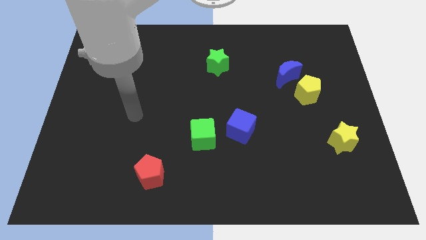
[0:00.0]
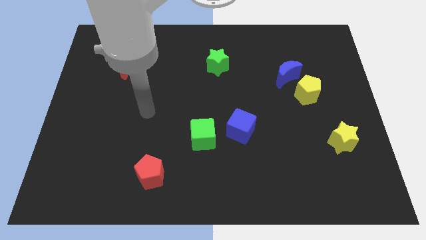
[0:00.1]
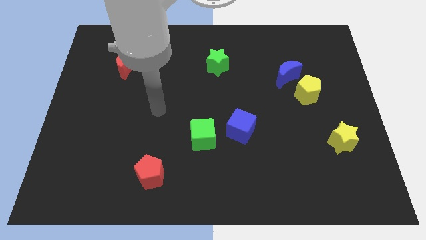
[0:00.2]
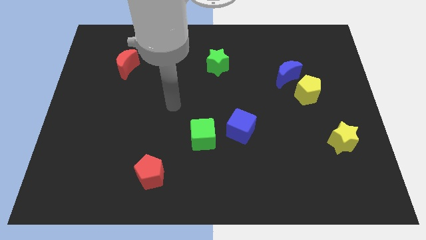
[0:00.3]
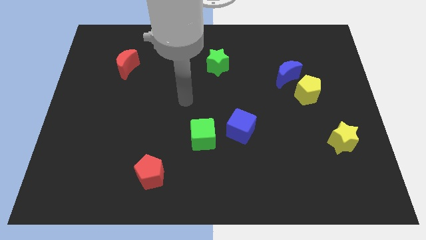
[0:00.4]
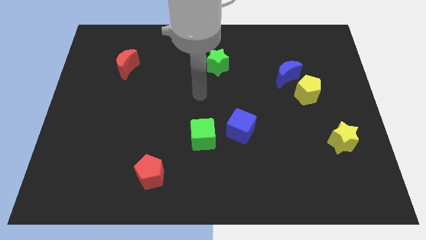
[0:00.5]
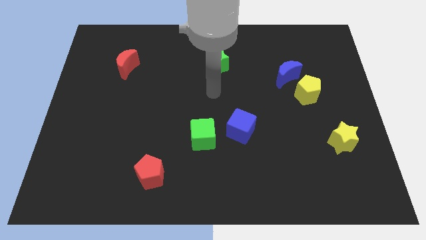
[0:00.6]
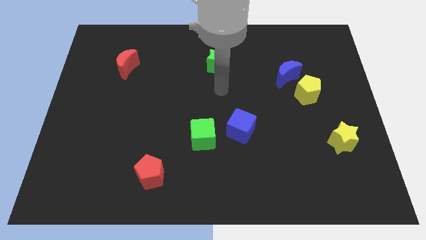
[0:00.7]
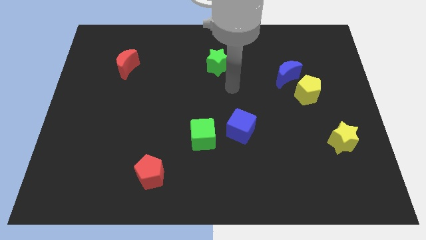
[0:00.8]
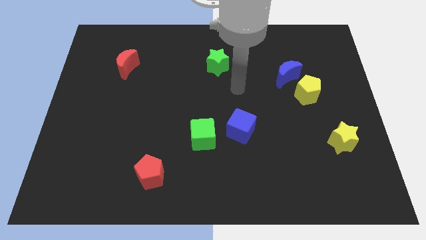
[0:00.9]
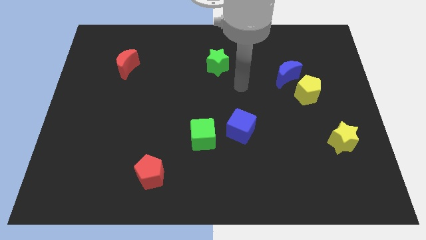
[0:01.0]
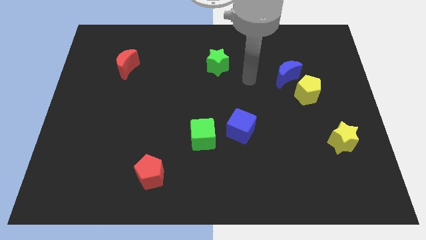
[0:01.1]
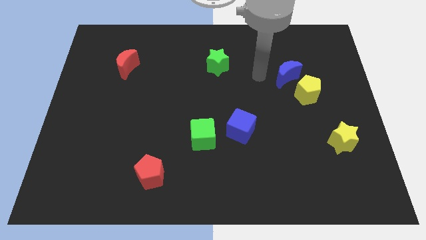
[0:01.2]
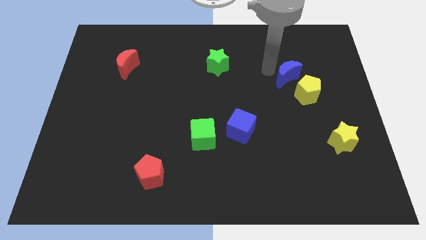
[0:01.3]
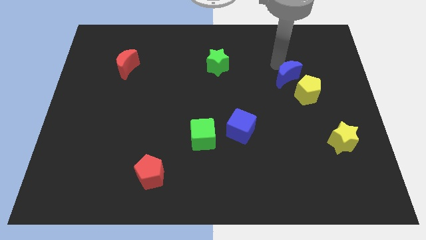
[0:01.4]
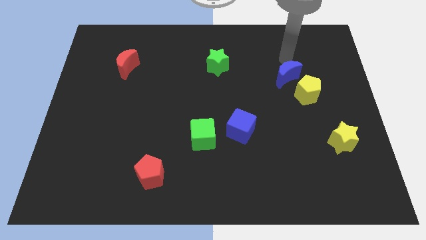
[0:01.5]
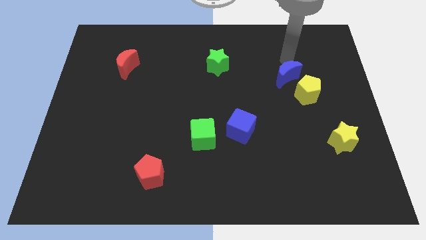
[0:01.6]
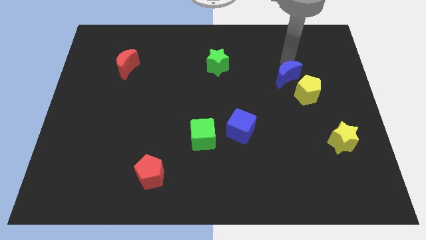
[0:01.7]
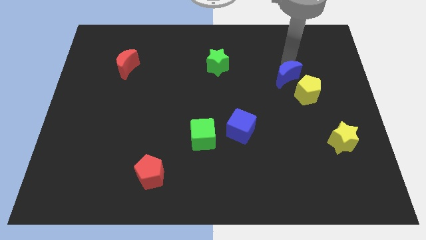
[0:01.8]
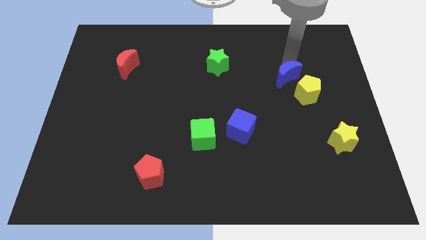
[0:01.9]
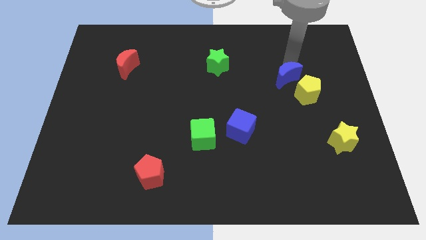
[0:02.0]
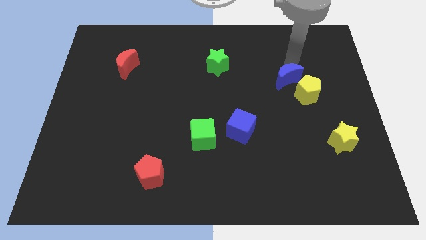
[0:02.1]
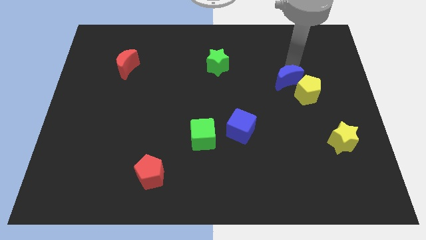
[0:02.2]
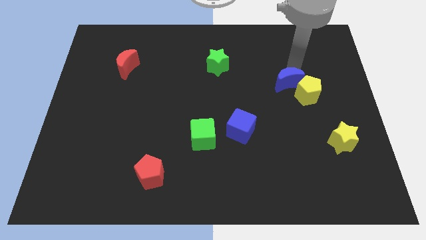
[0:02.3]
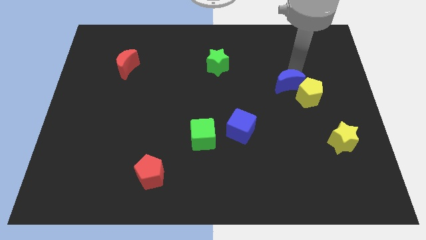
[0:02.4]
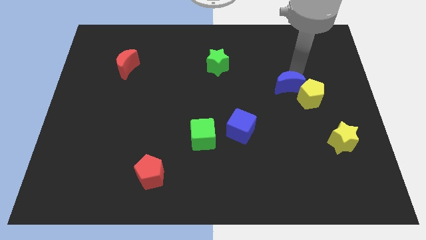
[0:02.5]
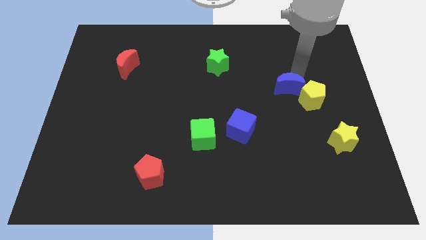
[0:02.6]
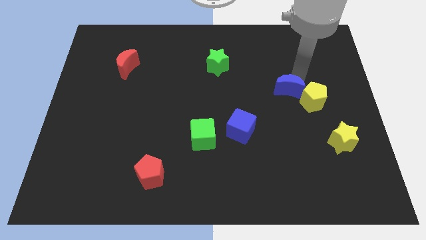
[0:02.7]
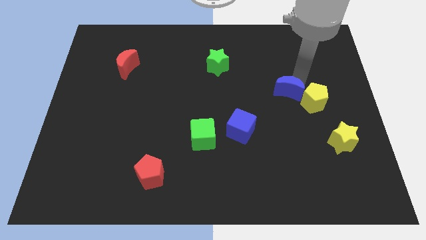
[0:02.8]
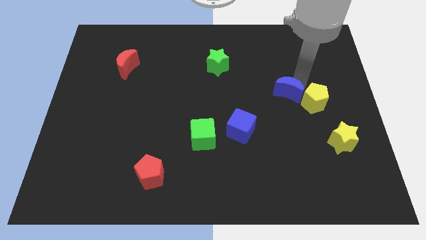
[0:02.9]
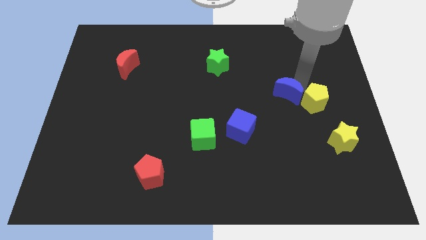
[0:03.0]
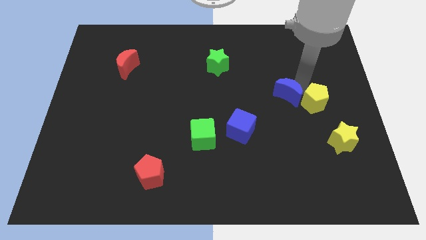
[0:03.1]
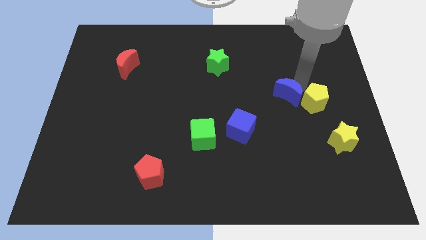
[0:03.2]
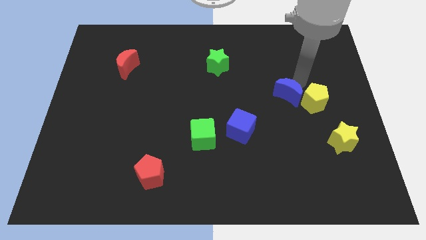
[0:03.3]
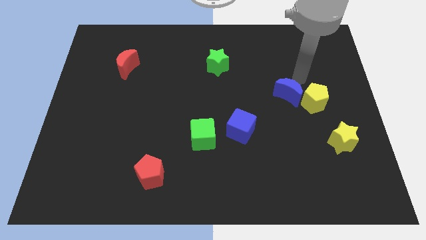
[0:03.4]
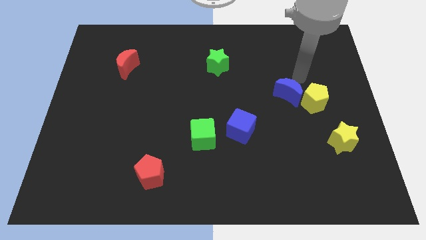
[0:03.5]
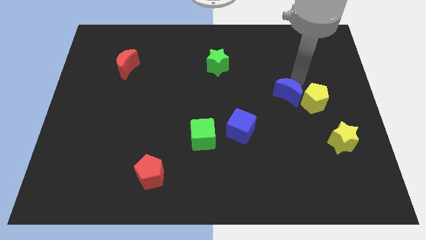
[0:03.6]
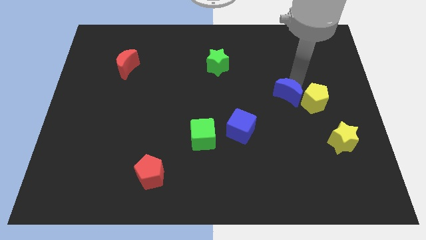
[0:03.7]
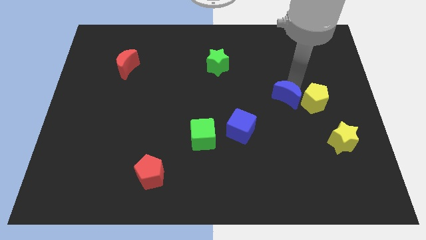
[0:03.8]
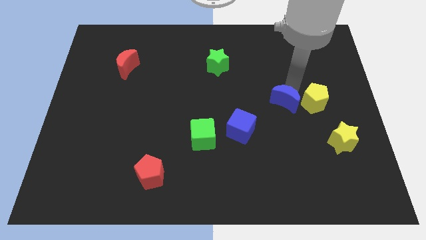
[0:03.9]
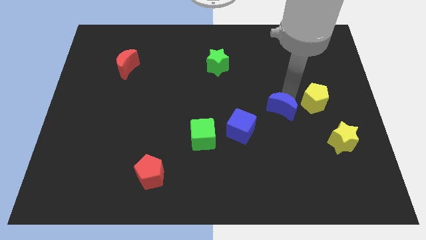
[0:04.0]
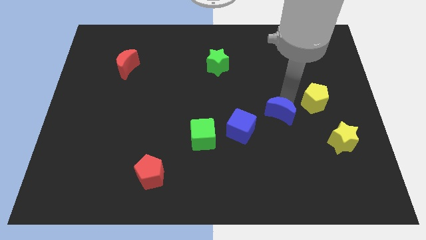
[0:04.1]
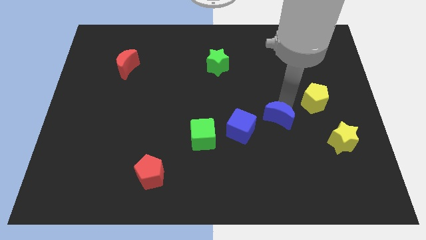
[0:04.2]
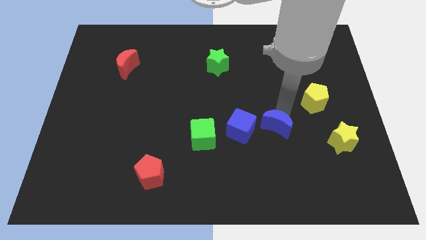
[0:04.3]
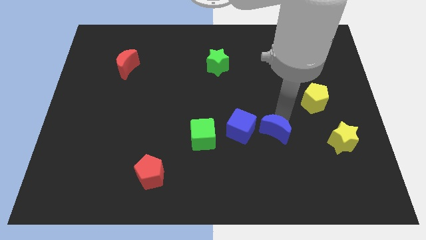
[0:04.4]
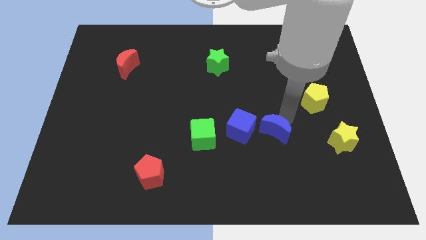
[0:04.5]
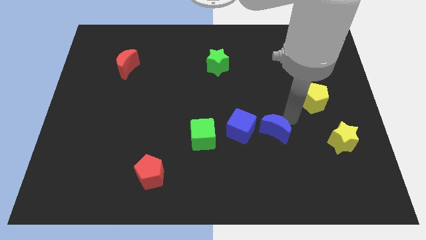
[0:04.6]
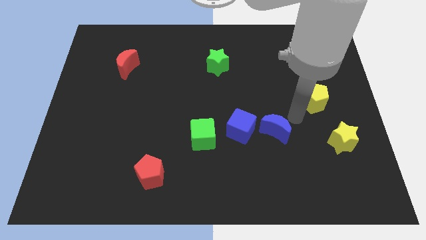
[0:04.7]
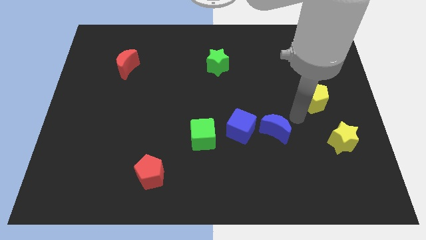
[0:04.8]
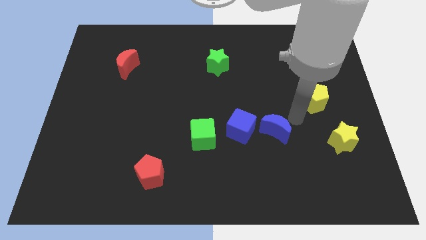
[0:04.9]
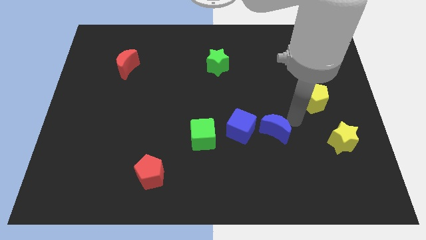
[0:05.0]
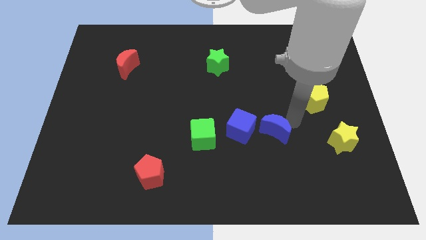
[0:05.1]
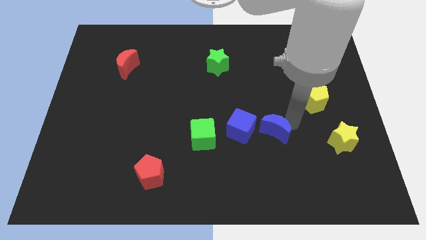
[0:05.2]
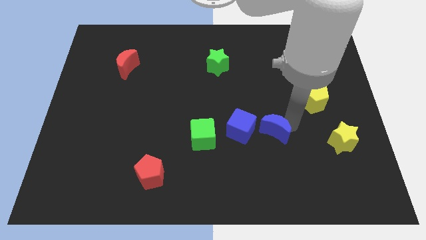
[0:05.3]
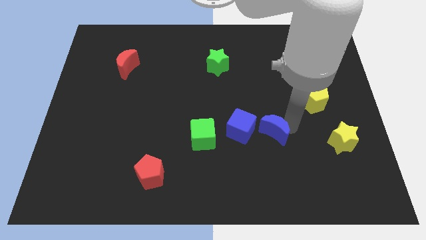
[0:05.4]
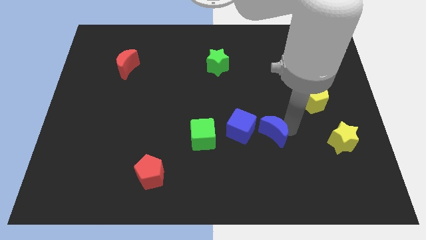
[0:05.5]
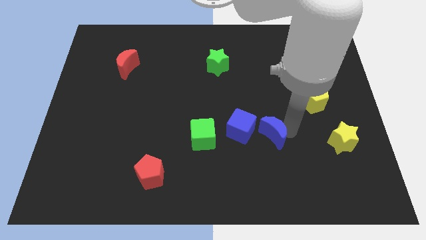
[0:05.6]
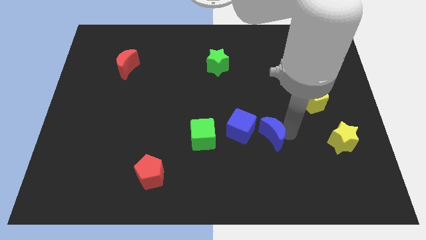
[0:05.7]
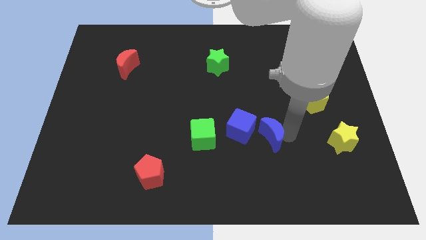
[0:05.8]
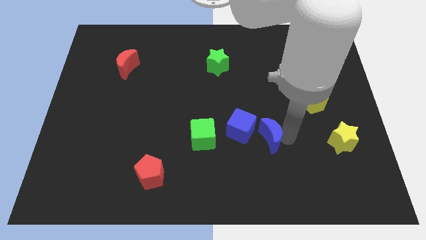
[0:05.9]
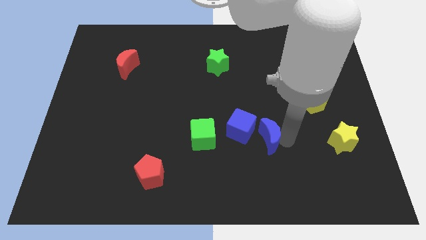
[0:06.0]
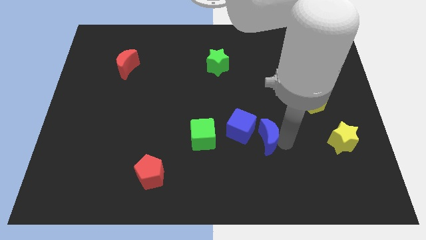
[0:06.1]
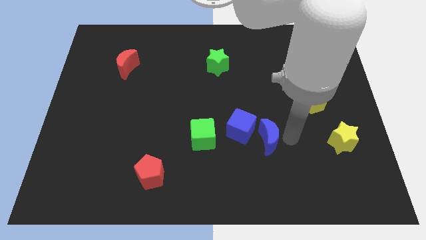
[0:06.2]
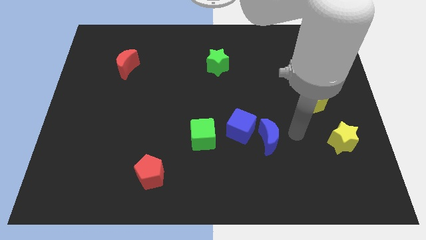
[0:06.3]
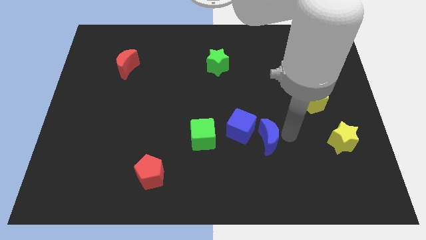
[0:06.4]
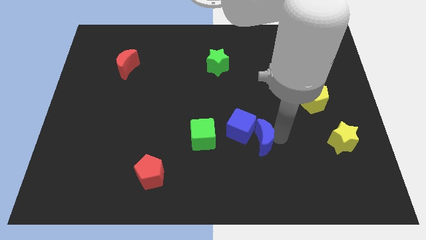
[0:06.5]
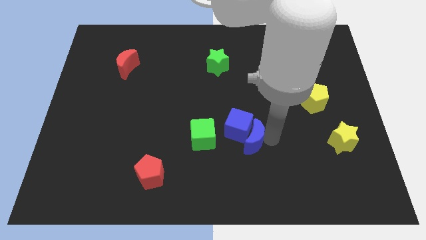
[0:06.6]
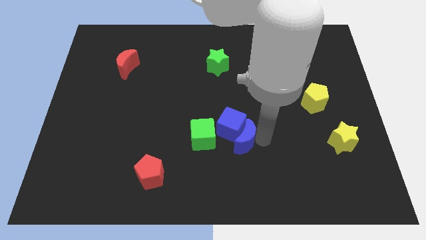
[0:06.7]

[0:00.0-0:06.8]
push the blue moon downwards and to the left

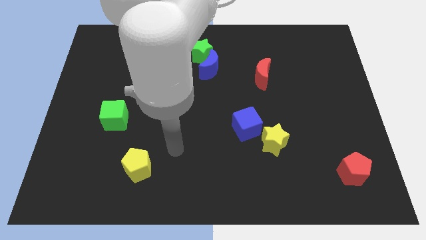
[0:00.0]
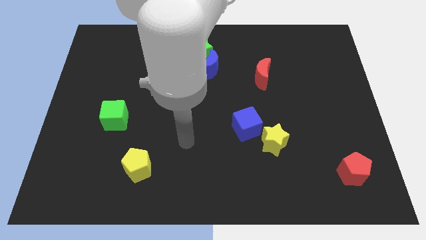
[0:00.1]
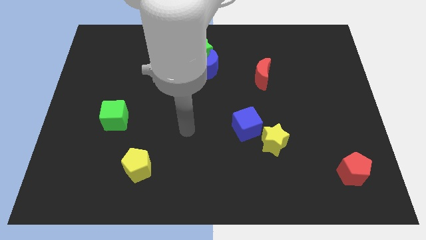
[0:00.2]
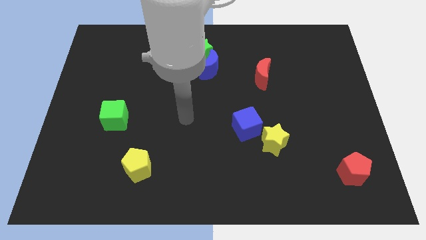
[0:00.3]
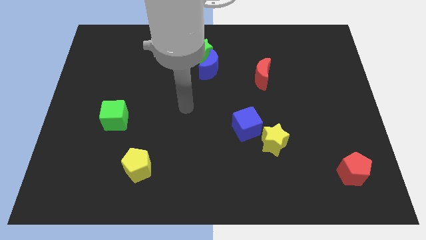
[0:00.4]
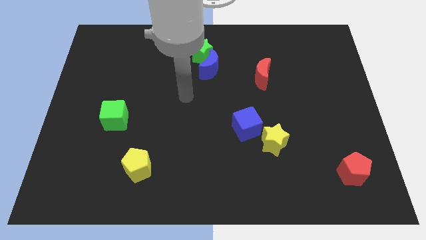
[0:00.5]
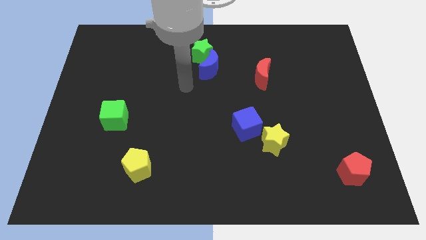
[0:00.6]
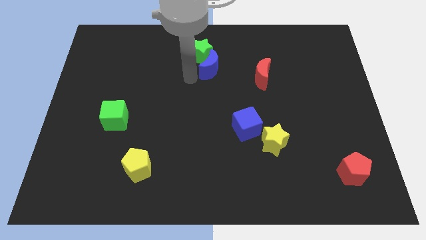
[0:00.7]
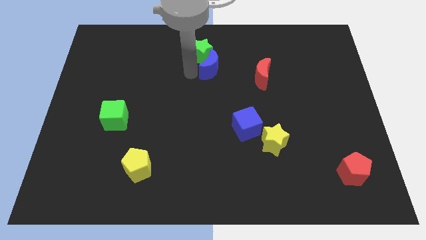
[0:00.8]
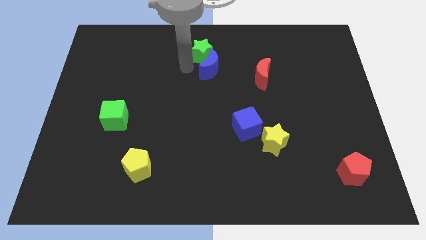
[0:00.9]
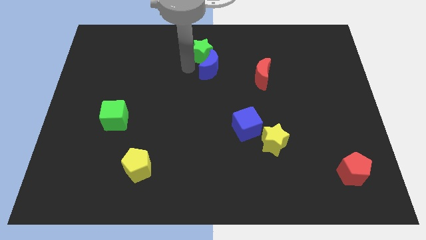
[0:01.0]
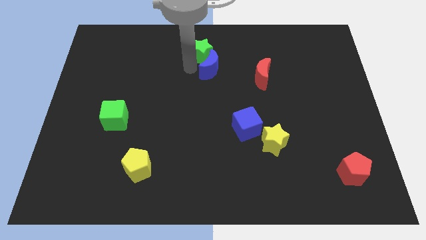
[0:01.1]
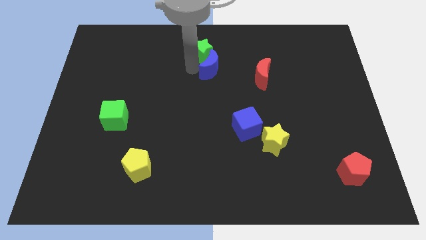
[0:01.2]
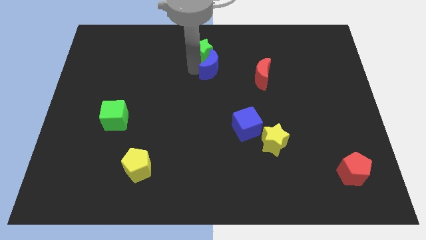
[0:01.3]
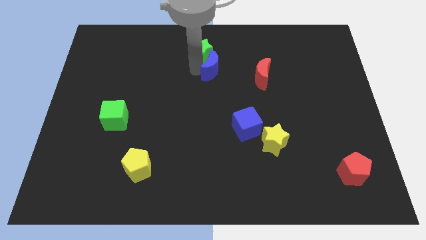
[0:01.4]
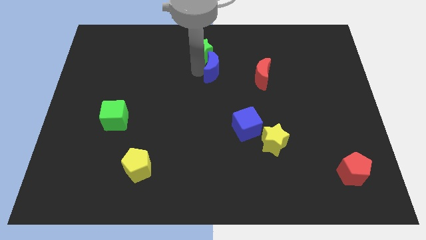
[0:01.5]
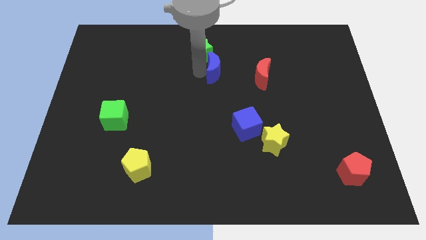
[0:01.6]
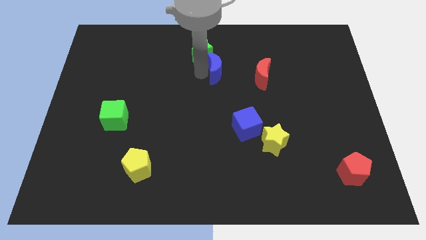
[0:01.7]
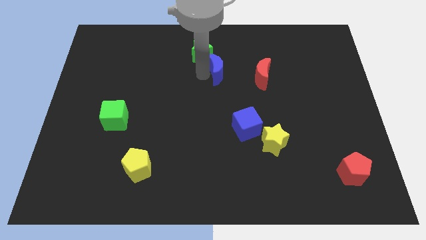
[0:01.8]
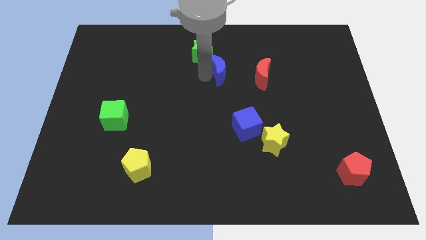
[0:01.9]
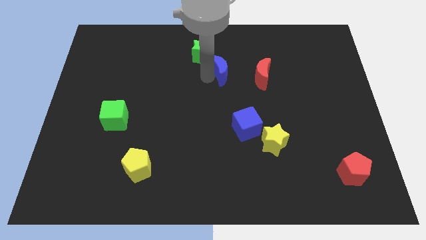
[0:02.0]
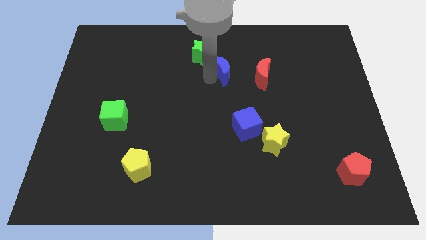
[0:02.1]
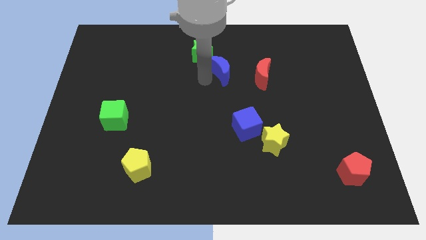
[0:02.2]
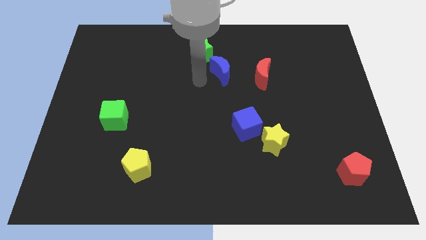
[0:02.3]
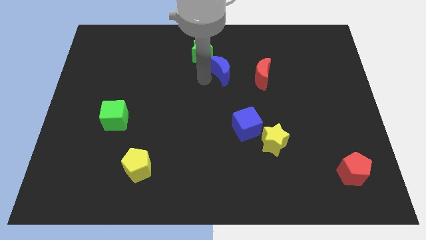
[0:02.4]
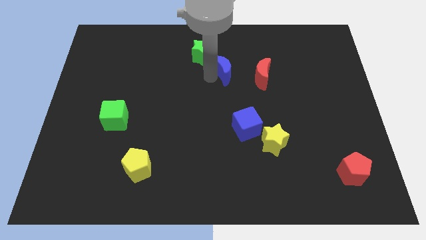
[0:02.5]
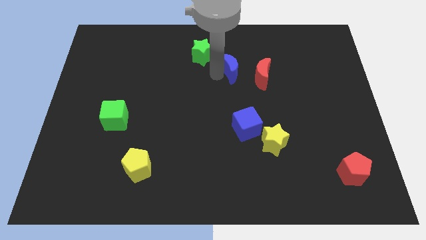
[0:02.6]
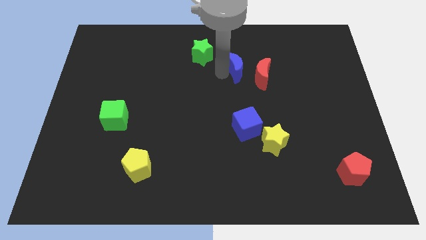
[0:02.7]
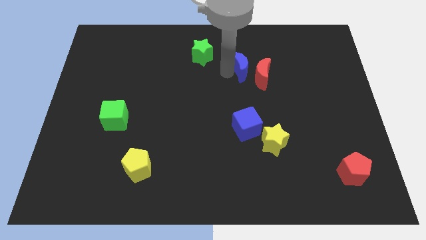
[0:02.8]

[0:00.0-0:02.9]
slightly push the blue moon right
